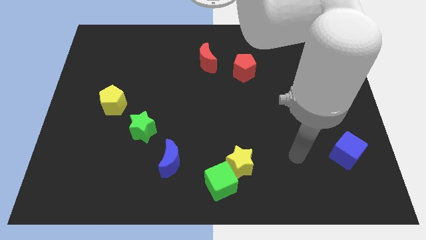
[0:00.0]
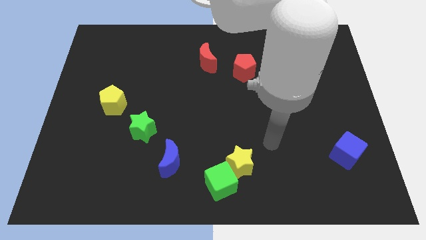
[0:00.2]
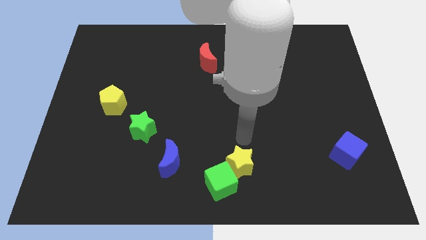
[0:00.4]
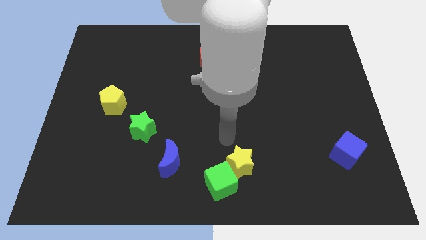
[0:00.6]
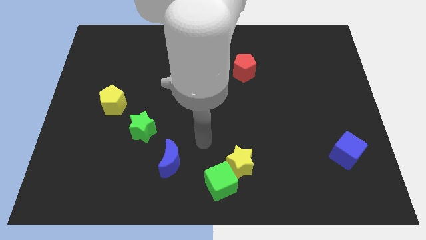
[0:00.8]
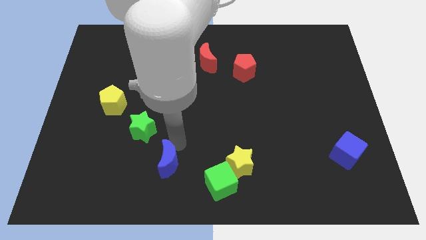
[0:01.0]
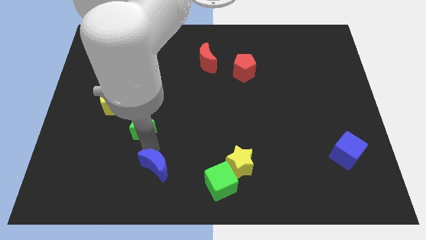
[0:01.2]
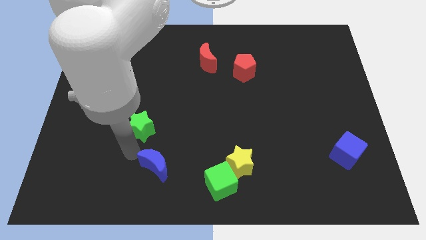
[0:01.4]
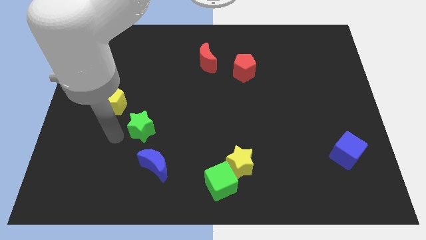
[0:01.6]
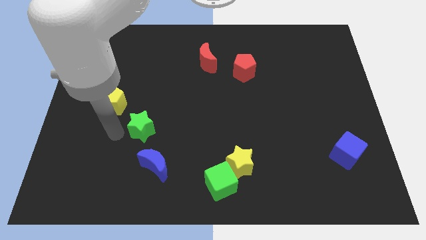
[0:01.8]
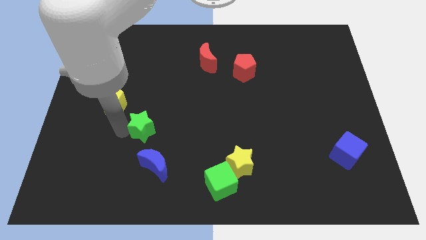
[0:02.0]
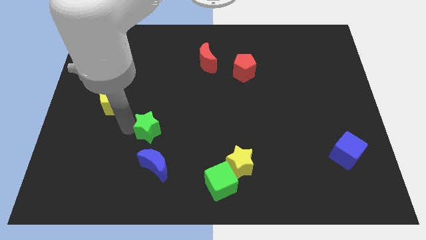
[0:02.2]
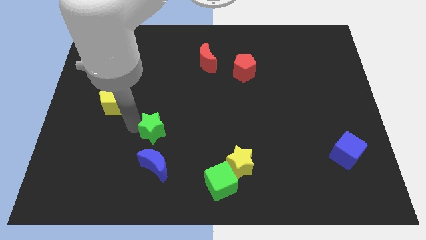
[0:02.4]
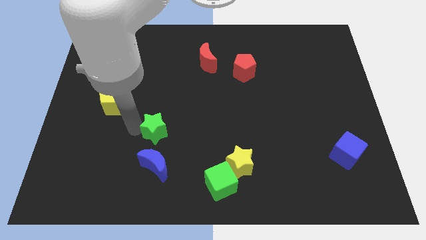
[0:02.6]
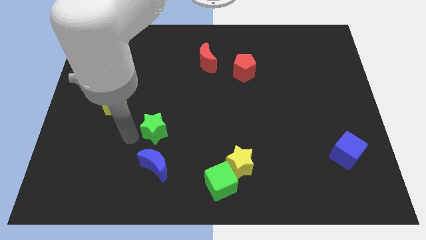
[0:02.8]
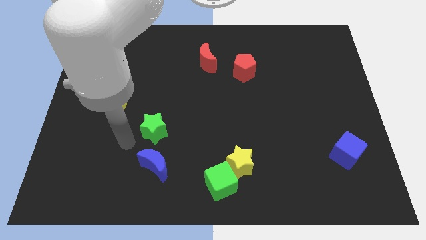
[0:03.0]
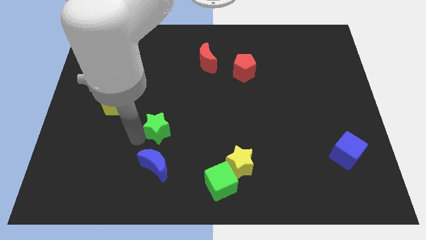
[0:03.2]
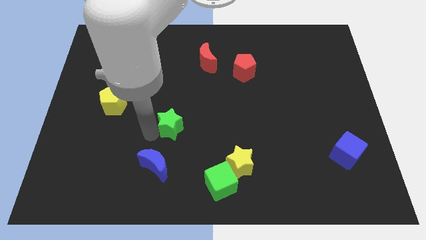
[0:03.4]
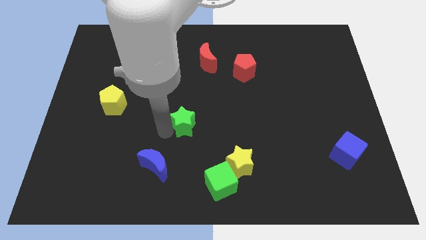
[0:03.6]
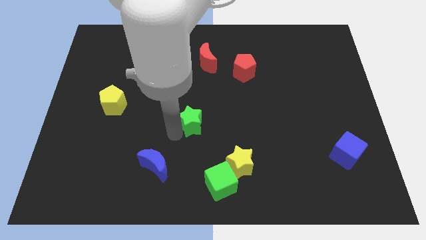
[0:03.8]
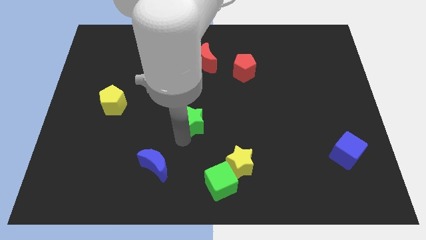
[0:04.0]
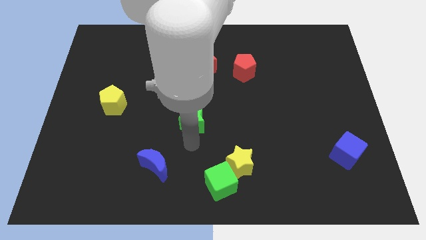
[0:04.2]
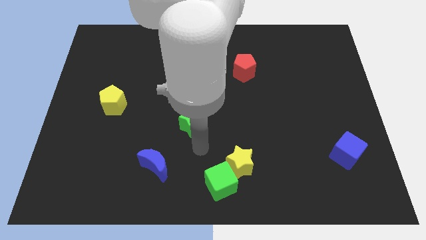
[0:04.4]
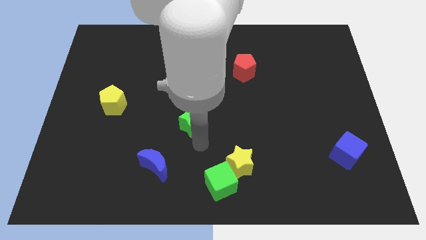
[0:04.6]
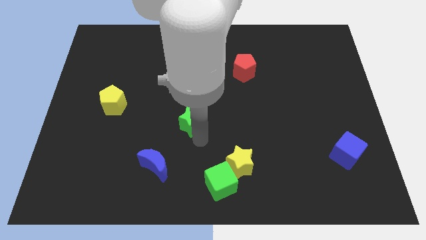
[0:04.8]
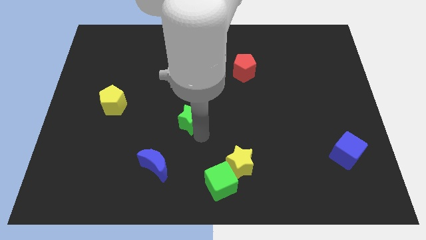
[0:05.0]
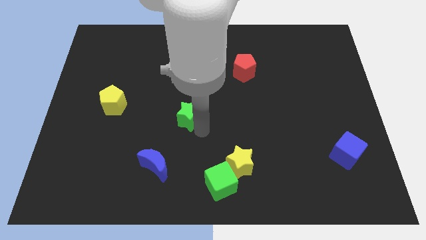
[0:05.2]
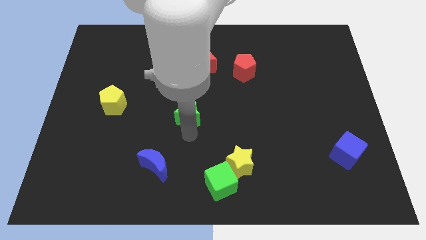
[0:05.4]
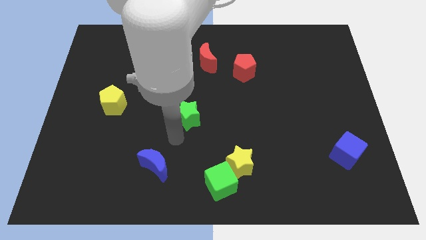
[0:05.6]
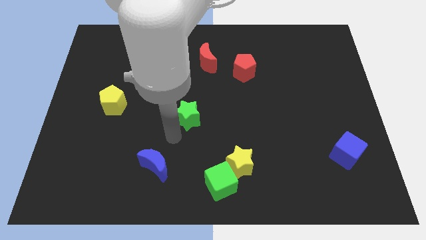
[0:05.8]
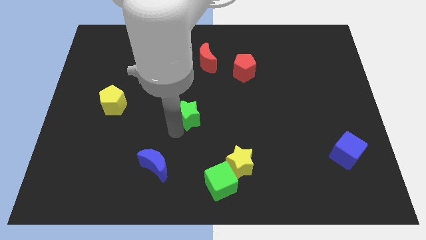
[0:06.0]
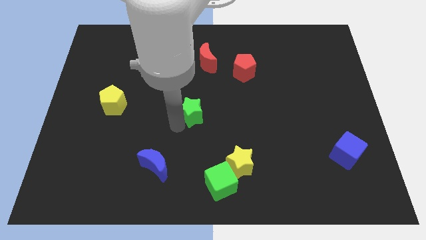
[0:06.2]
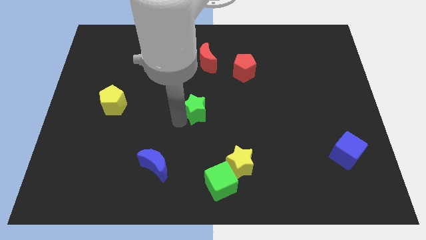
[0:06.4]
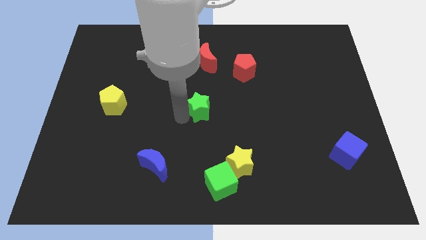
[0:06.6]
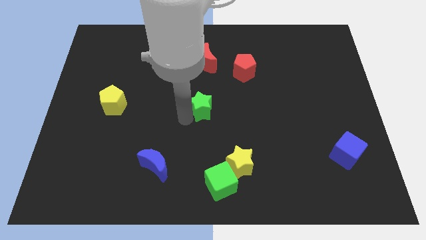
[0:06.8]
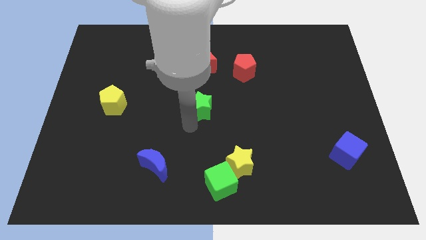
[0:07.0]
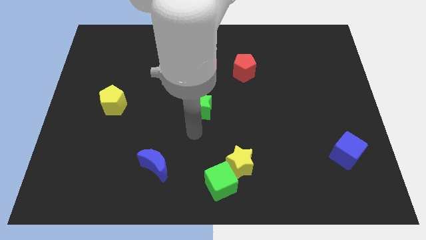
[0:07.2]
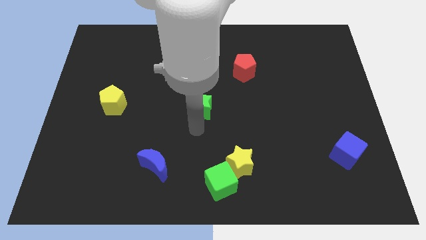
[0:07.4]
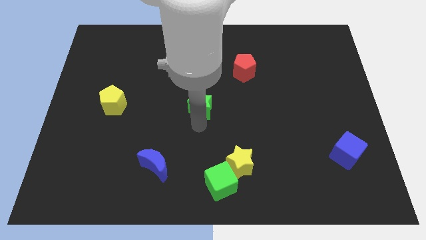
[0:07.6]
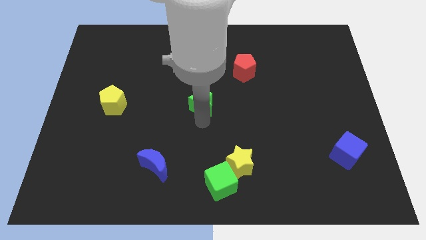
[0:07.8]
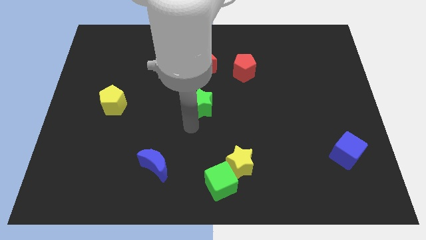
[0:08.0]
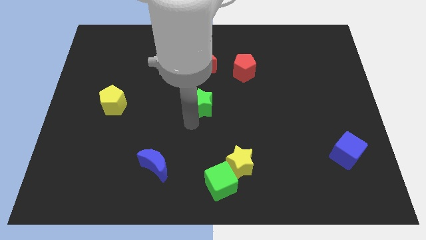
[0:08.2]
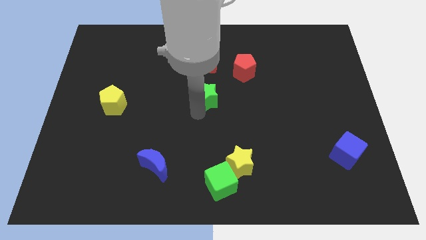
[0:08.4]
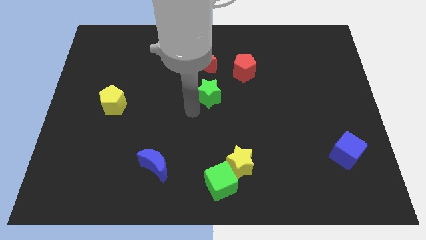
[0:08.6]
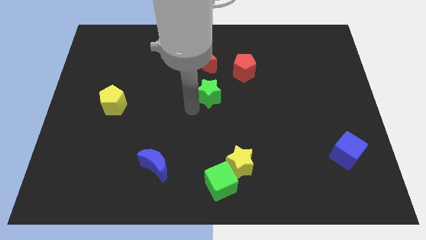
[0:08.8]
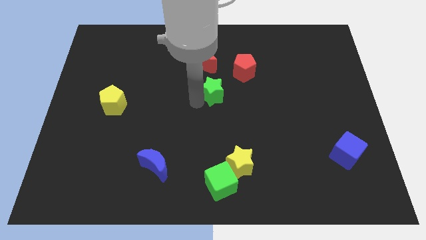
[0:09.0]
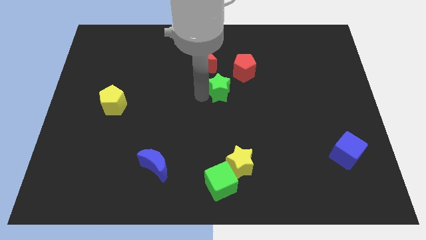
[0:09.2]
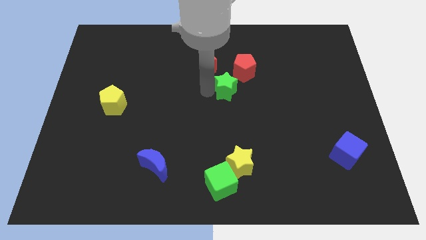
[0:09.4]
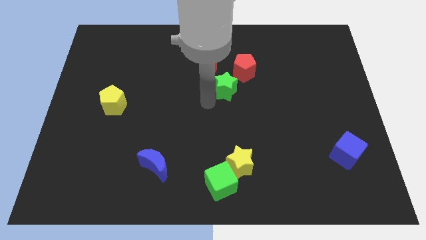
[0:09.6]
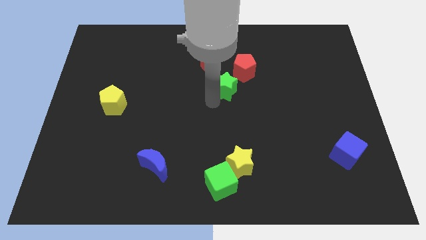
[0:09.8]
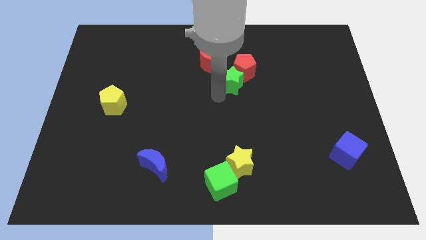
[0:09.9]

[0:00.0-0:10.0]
put the green star to the red pentagon

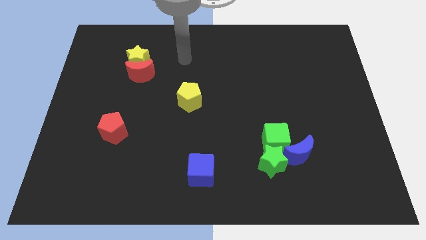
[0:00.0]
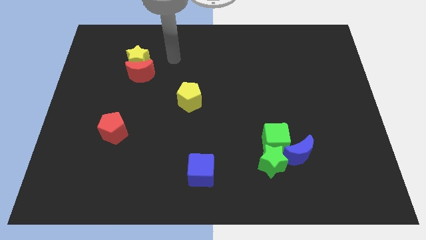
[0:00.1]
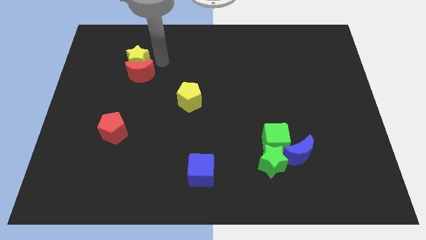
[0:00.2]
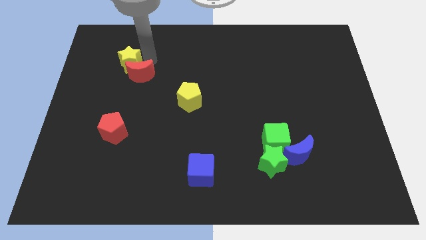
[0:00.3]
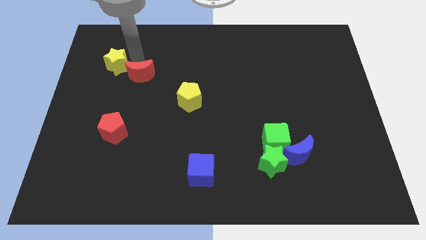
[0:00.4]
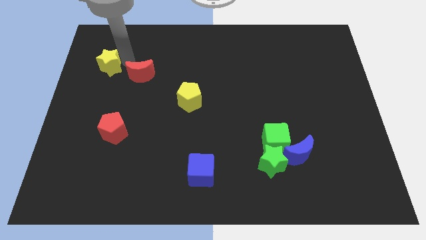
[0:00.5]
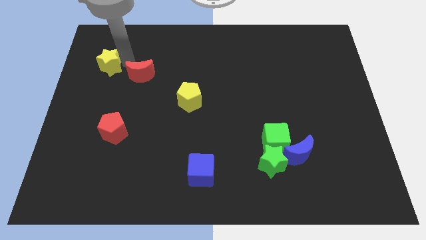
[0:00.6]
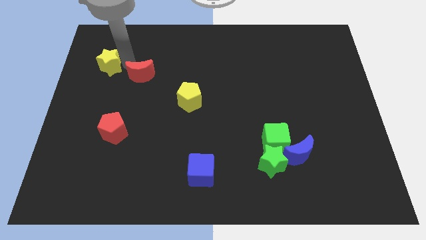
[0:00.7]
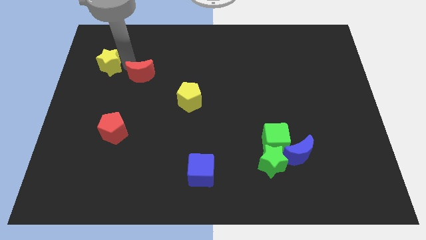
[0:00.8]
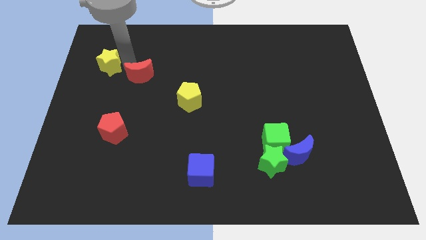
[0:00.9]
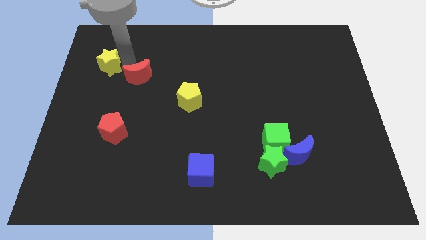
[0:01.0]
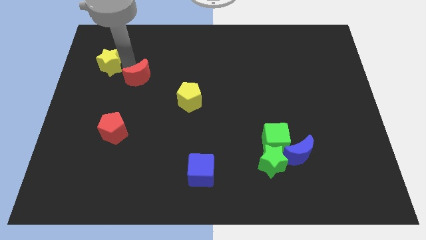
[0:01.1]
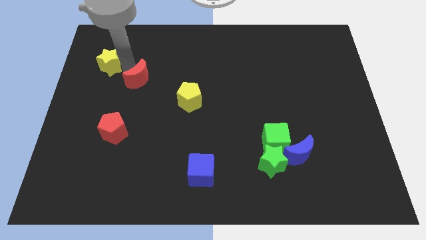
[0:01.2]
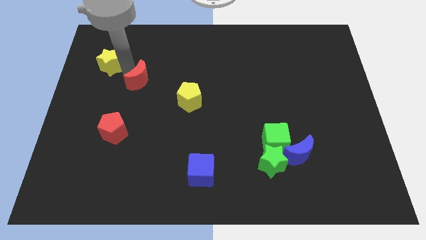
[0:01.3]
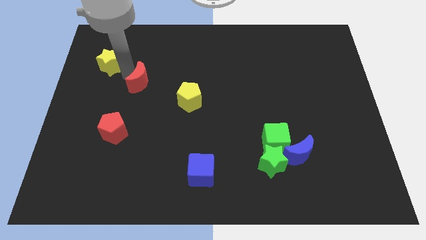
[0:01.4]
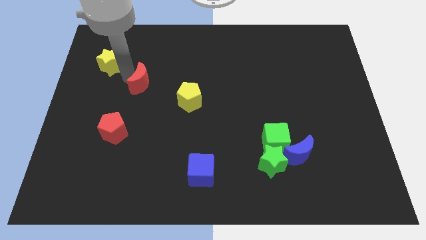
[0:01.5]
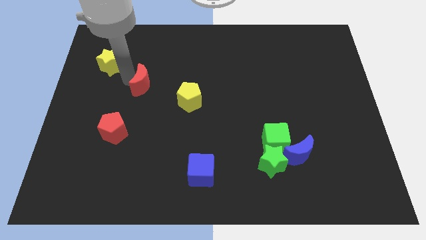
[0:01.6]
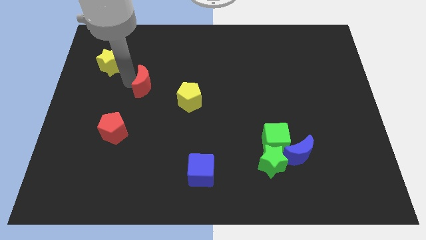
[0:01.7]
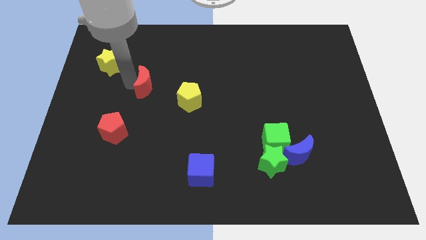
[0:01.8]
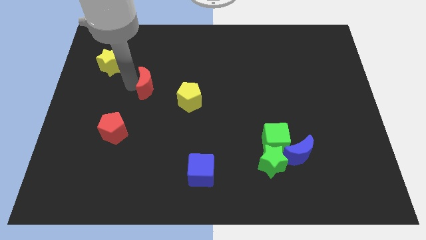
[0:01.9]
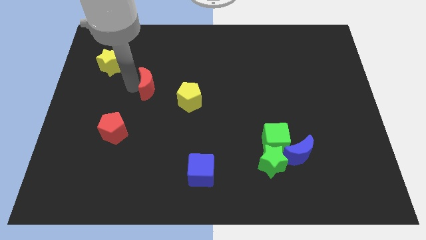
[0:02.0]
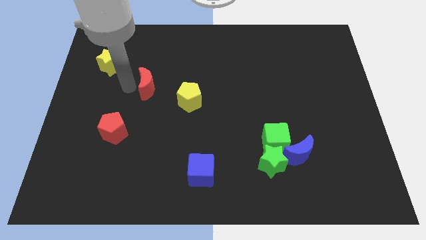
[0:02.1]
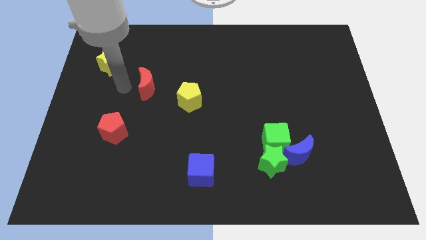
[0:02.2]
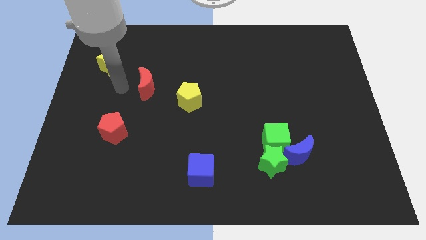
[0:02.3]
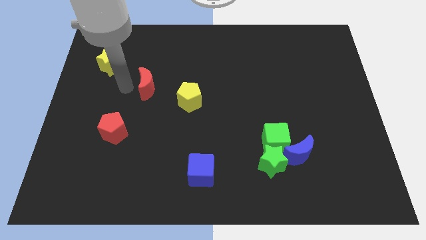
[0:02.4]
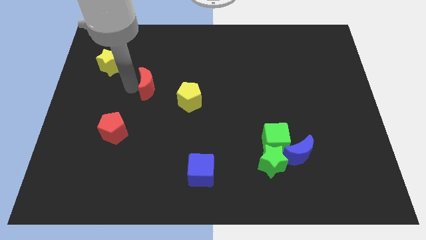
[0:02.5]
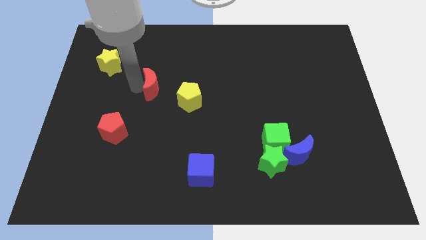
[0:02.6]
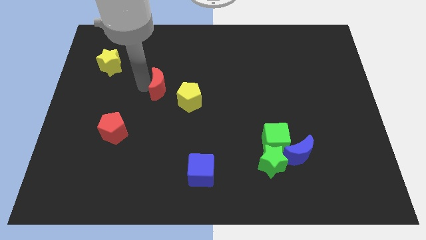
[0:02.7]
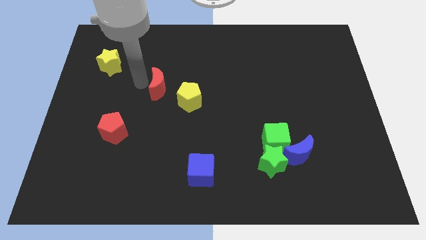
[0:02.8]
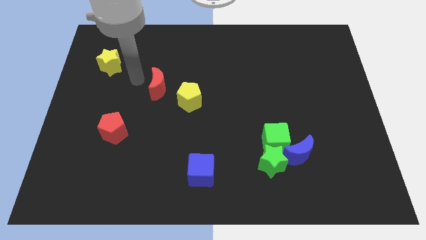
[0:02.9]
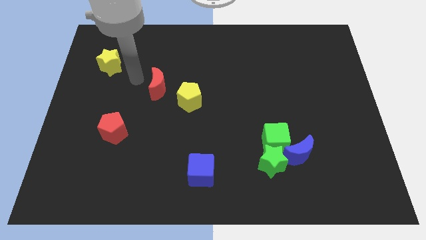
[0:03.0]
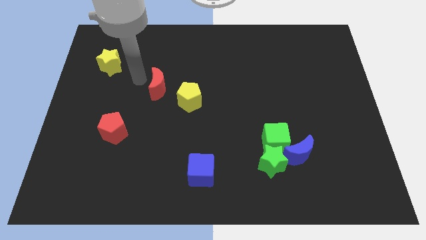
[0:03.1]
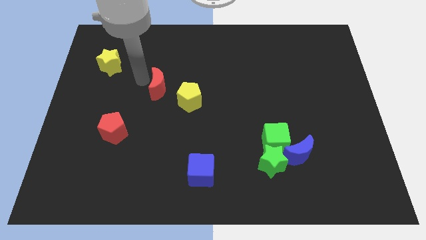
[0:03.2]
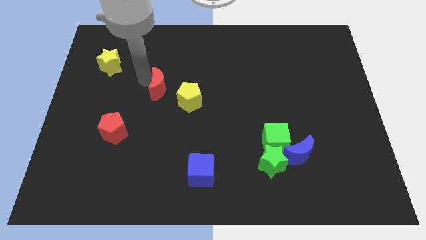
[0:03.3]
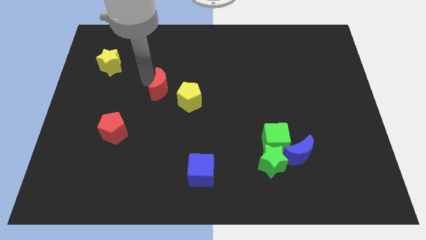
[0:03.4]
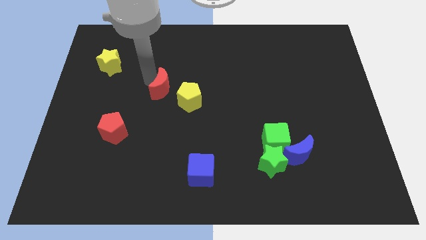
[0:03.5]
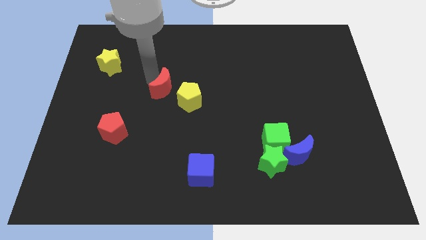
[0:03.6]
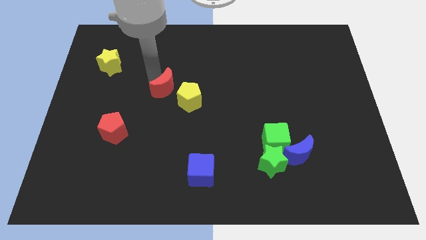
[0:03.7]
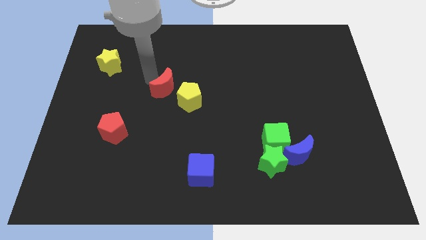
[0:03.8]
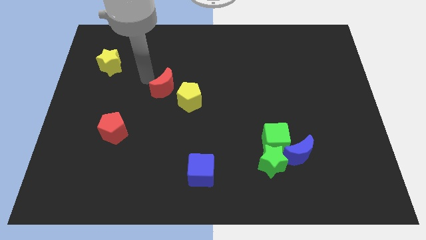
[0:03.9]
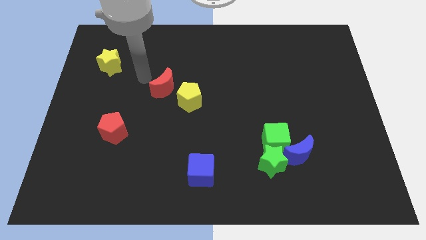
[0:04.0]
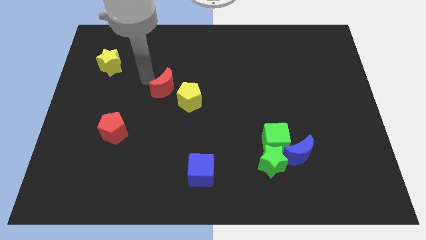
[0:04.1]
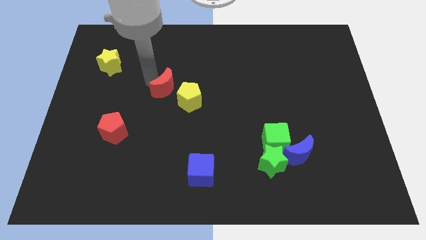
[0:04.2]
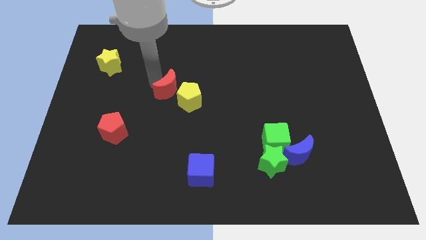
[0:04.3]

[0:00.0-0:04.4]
move the red moon next to the yellow pentagon
